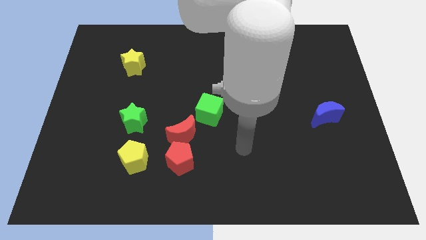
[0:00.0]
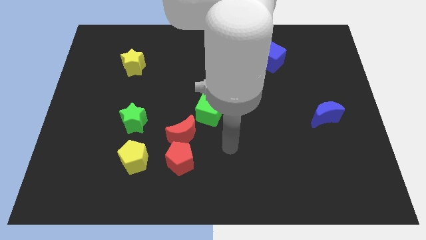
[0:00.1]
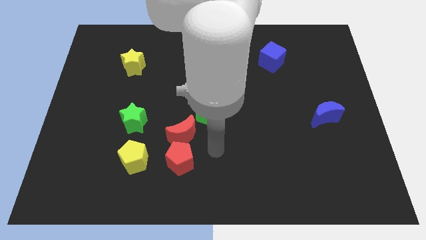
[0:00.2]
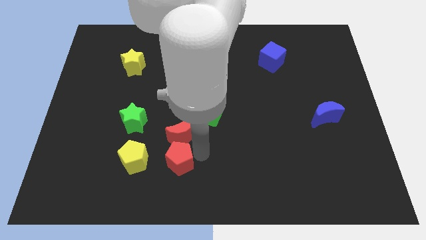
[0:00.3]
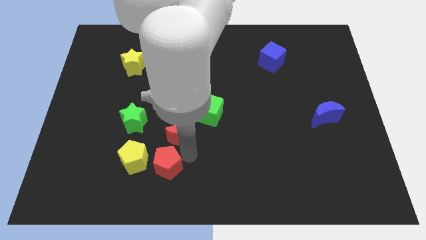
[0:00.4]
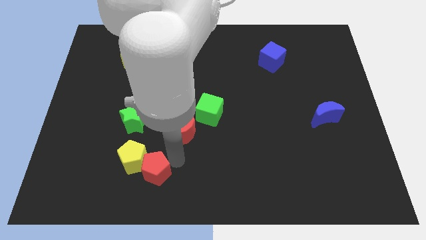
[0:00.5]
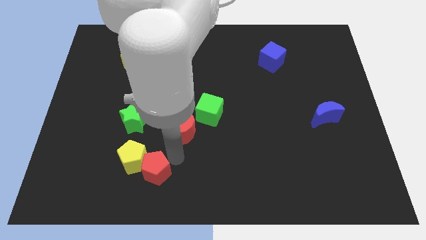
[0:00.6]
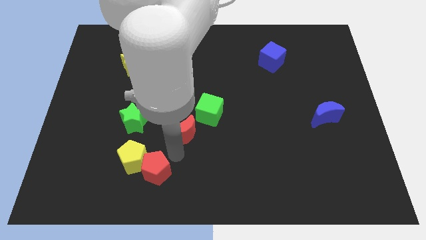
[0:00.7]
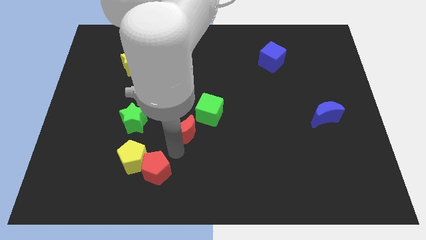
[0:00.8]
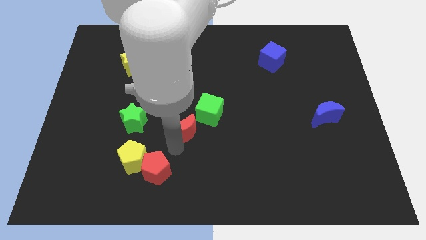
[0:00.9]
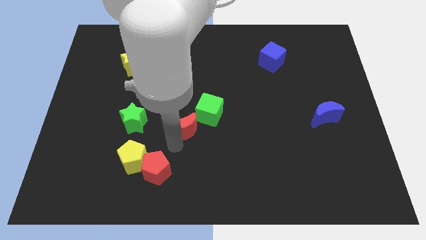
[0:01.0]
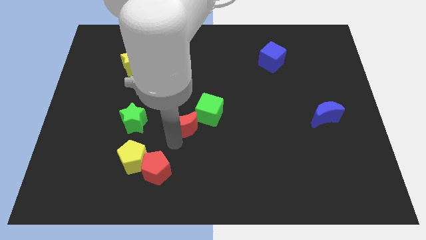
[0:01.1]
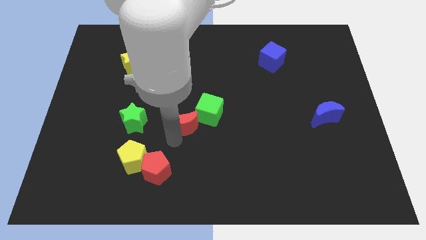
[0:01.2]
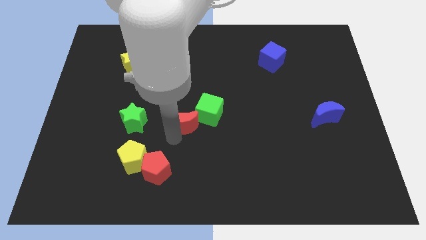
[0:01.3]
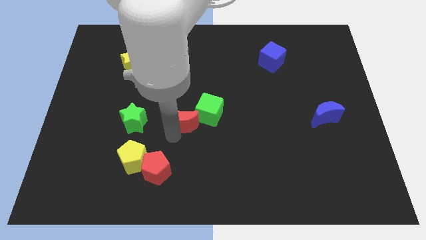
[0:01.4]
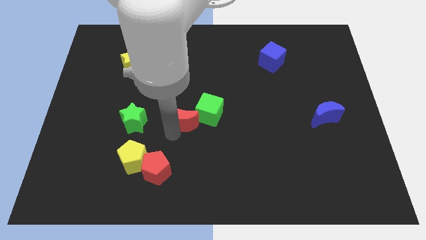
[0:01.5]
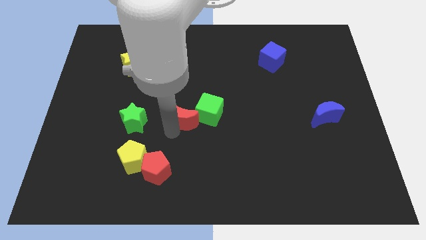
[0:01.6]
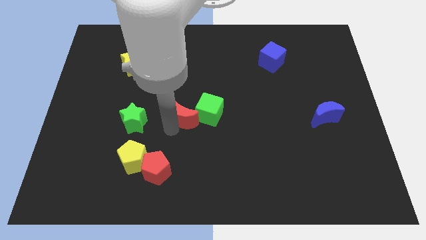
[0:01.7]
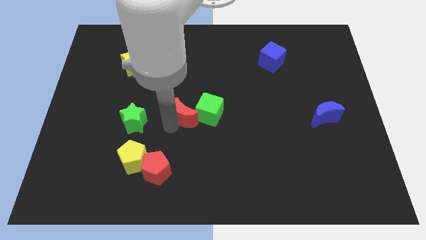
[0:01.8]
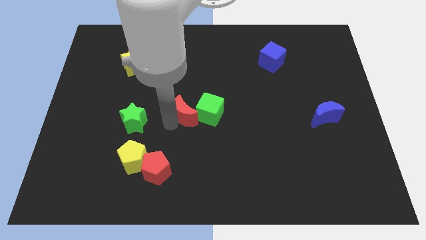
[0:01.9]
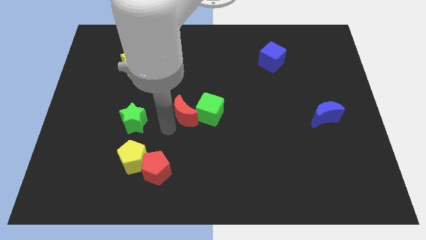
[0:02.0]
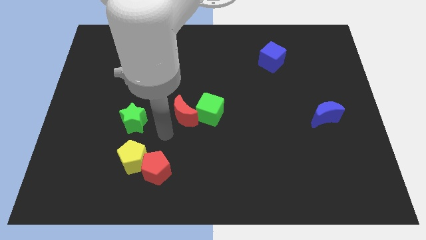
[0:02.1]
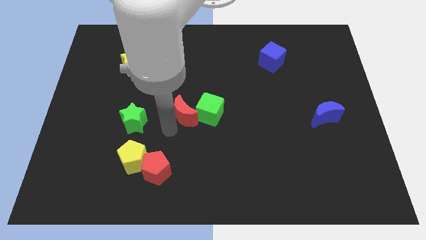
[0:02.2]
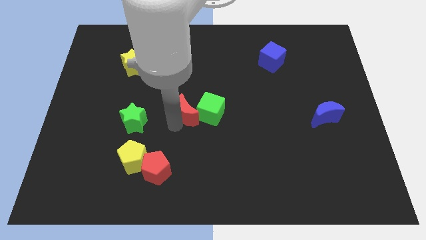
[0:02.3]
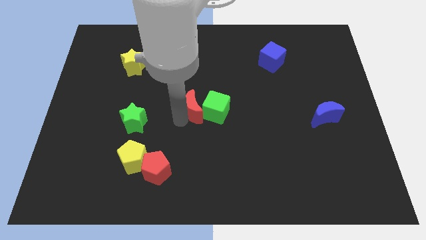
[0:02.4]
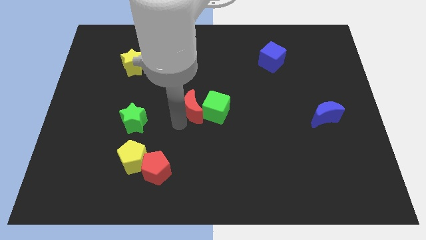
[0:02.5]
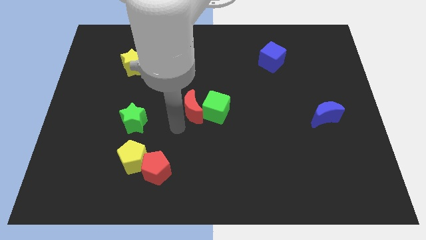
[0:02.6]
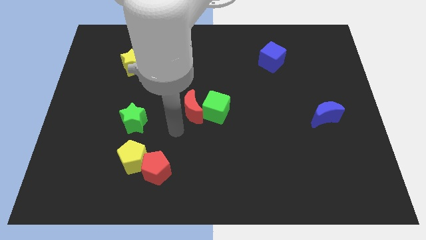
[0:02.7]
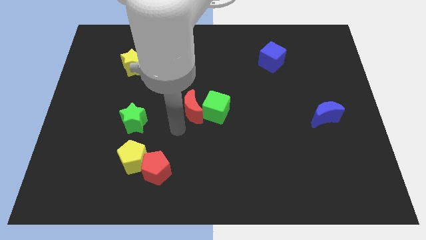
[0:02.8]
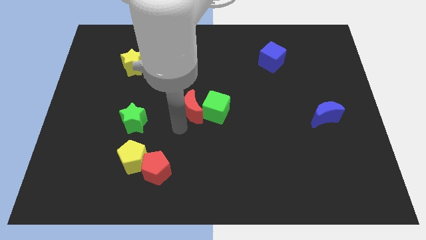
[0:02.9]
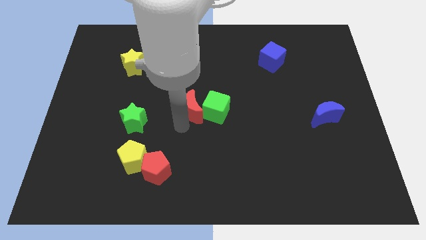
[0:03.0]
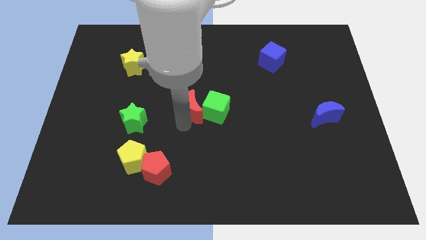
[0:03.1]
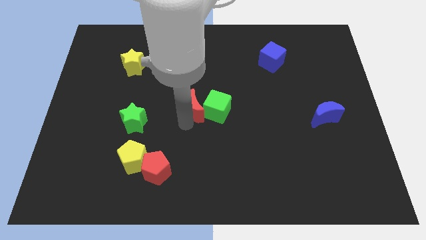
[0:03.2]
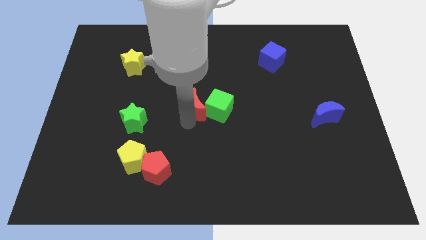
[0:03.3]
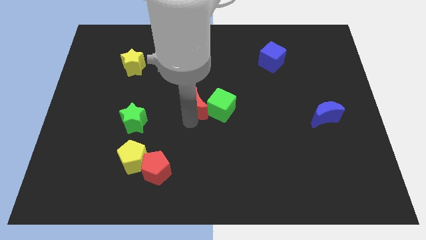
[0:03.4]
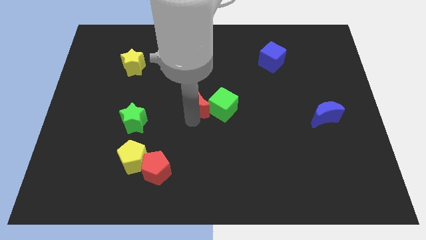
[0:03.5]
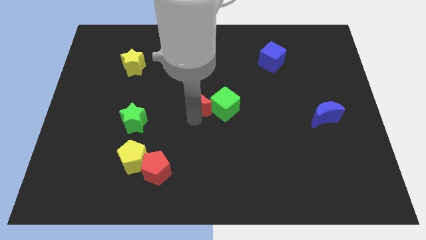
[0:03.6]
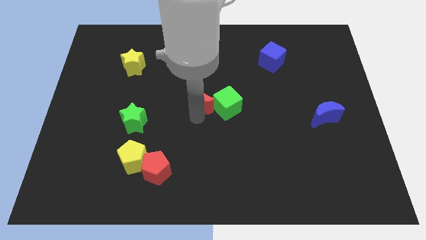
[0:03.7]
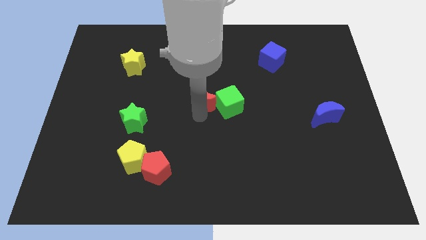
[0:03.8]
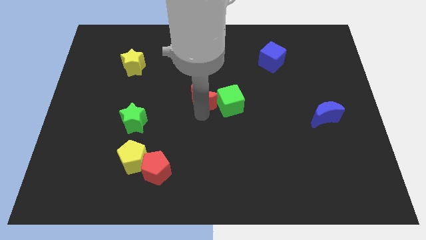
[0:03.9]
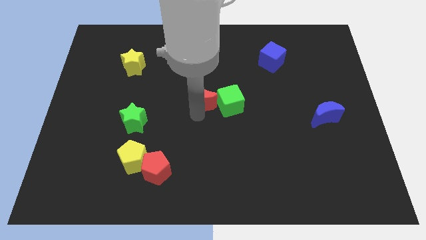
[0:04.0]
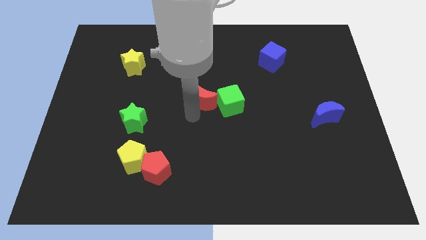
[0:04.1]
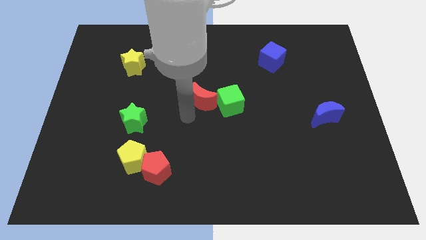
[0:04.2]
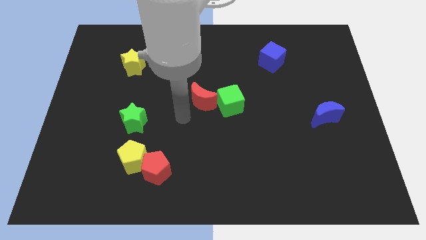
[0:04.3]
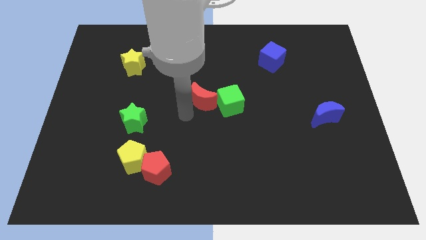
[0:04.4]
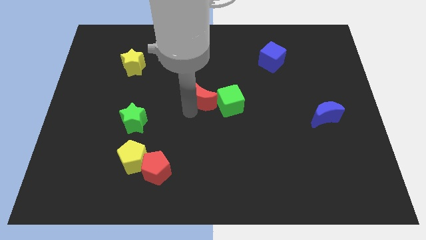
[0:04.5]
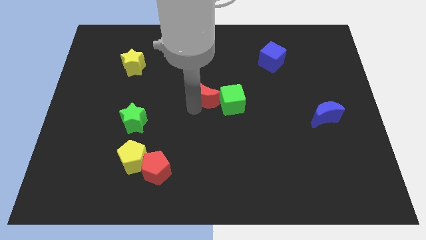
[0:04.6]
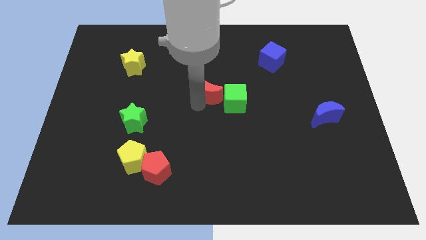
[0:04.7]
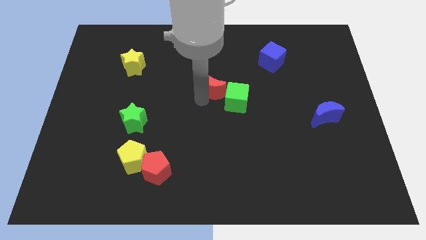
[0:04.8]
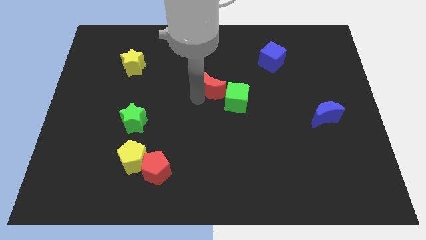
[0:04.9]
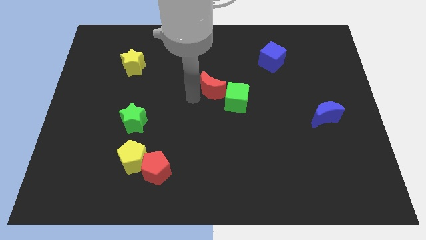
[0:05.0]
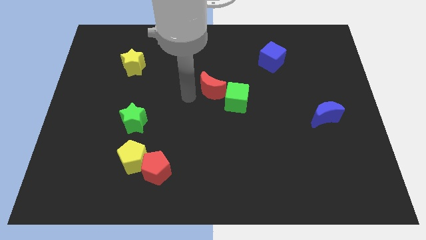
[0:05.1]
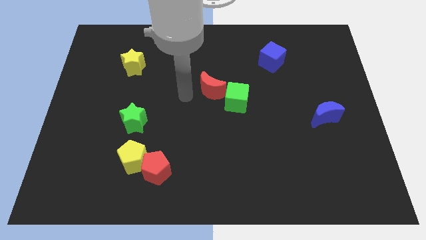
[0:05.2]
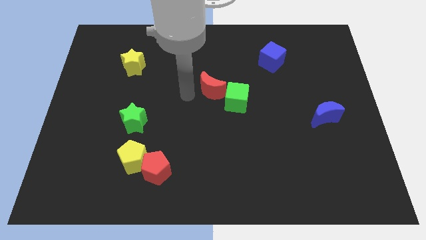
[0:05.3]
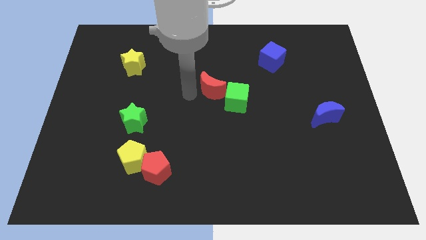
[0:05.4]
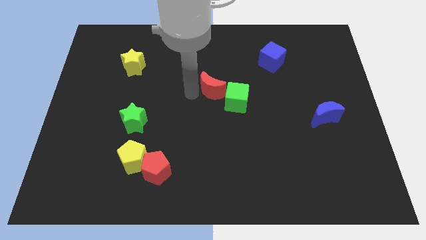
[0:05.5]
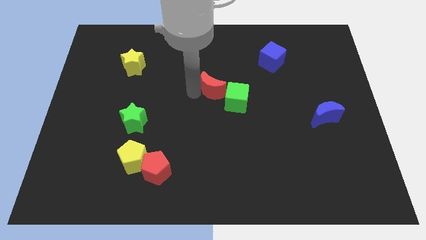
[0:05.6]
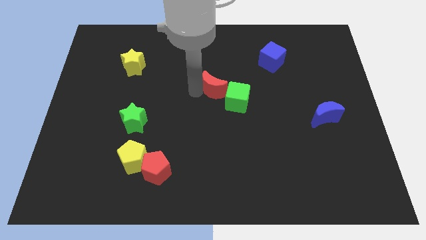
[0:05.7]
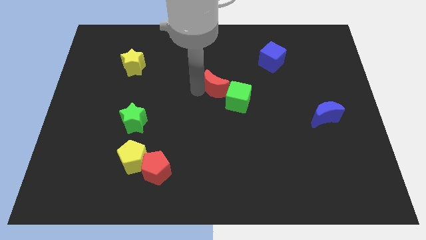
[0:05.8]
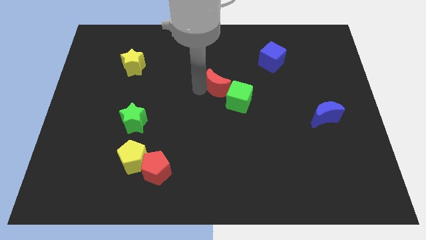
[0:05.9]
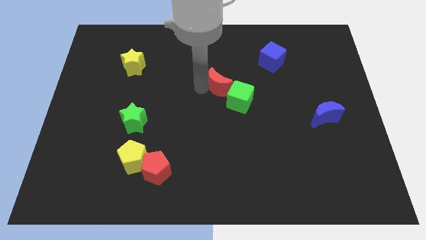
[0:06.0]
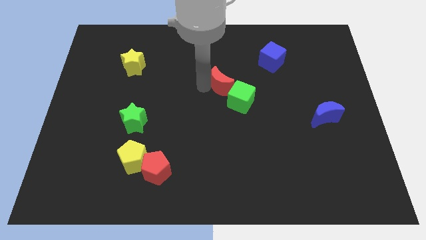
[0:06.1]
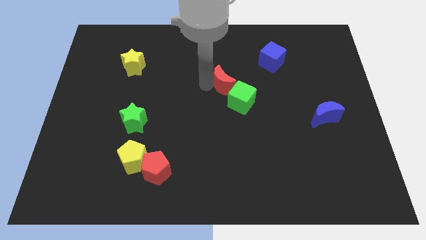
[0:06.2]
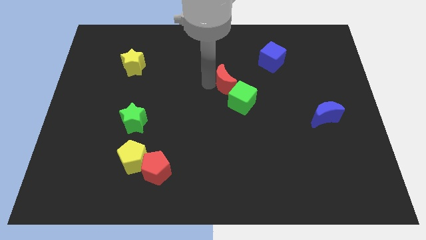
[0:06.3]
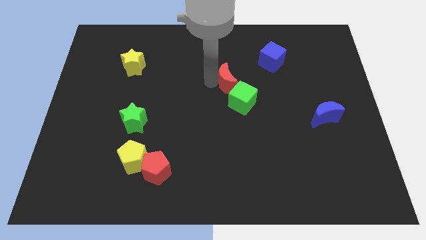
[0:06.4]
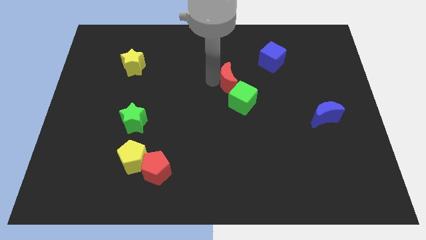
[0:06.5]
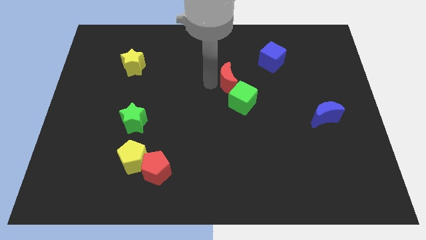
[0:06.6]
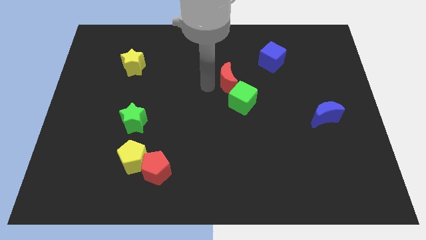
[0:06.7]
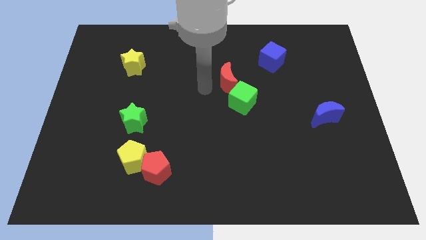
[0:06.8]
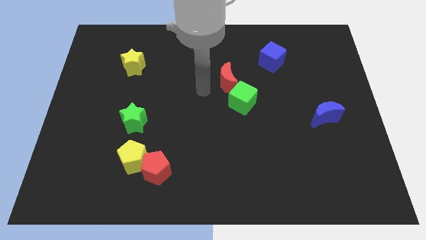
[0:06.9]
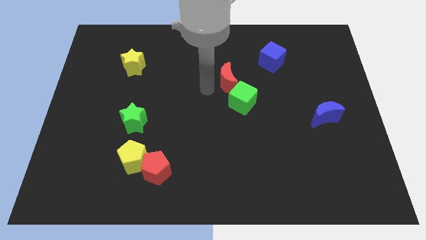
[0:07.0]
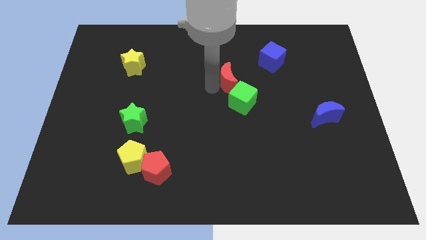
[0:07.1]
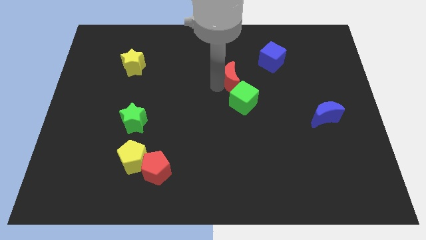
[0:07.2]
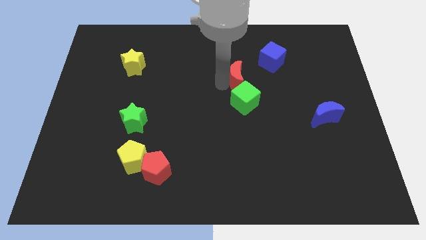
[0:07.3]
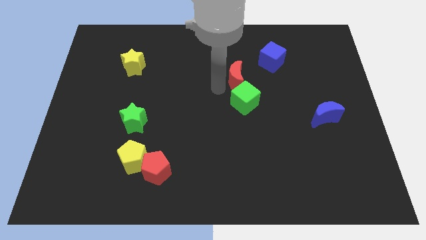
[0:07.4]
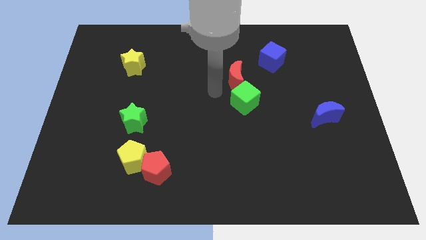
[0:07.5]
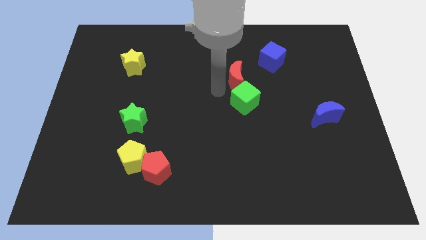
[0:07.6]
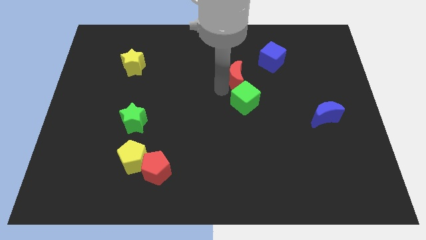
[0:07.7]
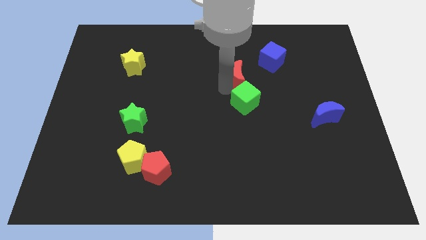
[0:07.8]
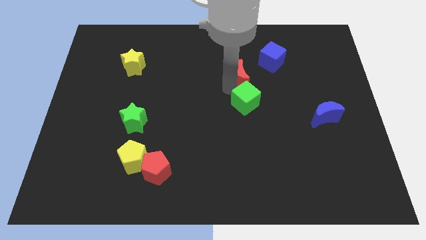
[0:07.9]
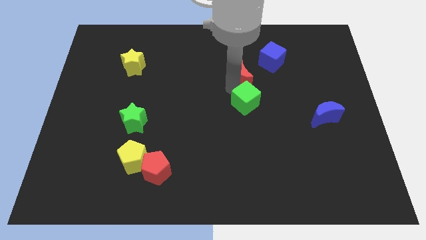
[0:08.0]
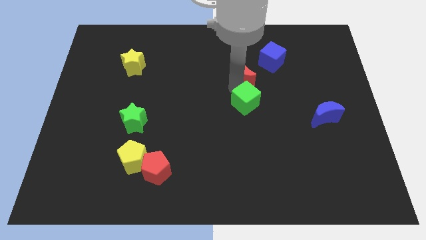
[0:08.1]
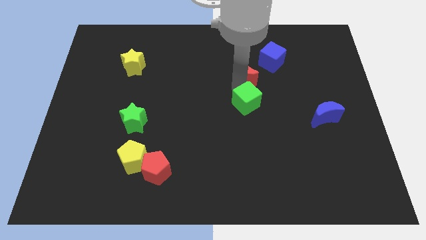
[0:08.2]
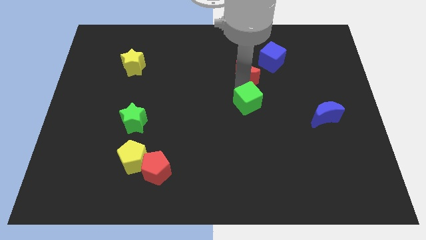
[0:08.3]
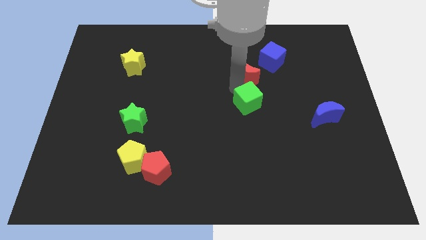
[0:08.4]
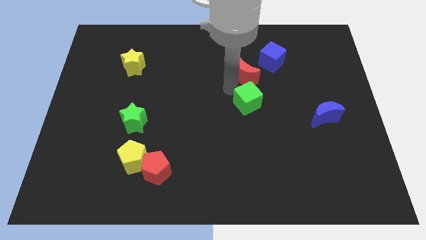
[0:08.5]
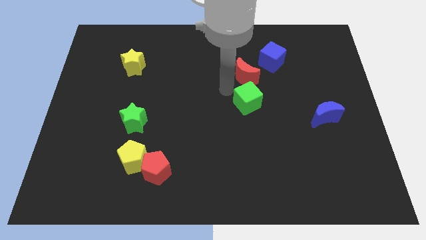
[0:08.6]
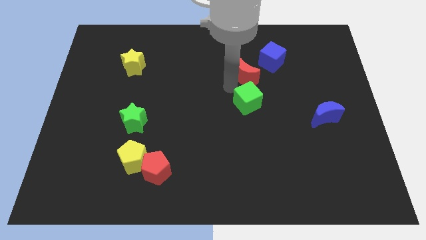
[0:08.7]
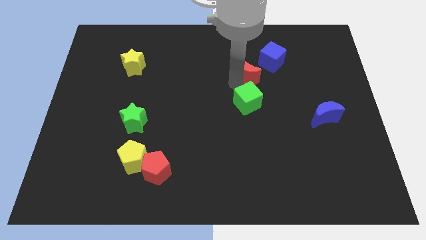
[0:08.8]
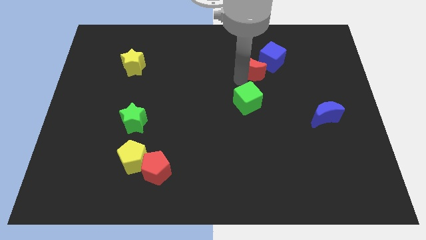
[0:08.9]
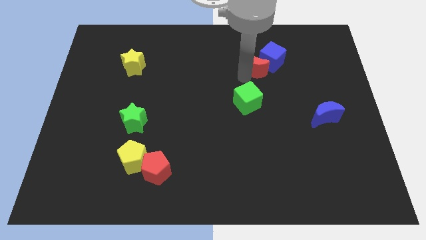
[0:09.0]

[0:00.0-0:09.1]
push the red moon close to the blue cube
